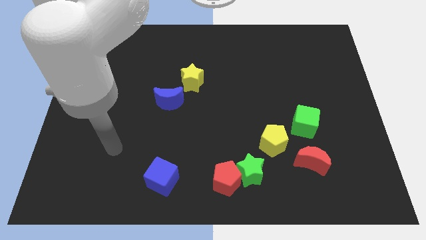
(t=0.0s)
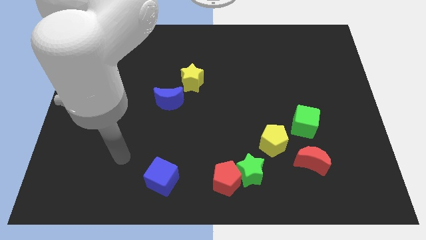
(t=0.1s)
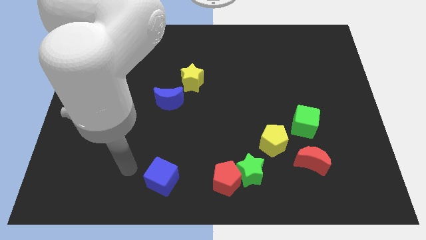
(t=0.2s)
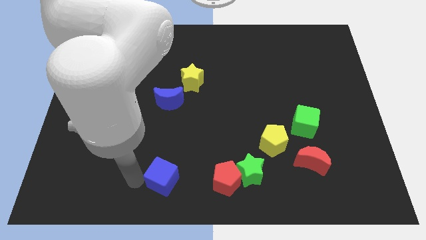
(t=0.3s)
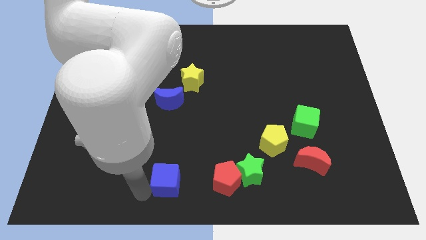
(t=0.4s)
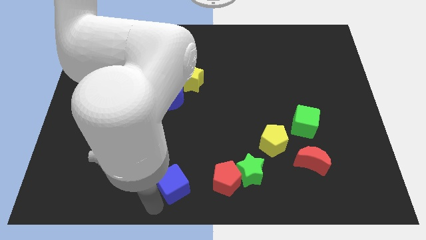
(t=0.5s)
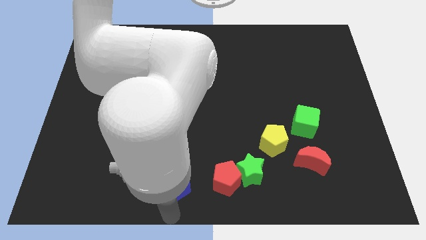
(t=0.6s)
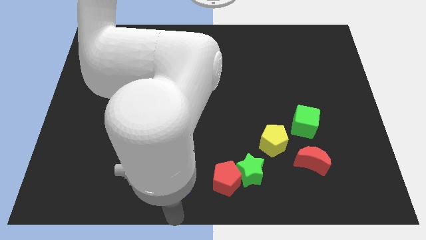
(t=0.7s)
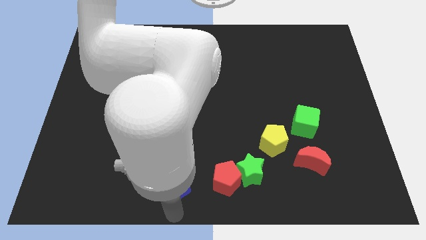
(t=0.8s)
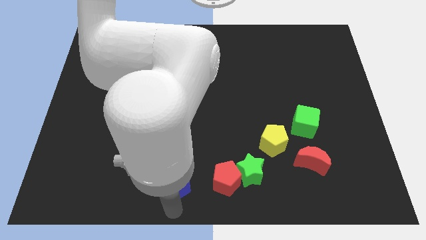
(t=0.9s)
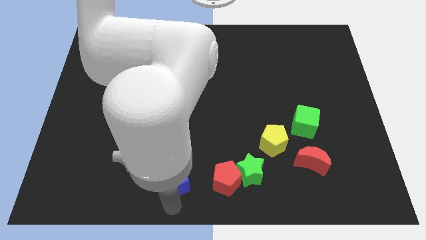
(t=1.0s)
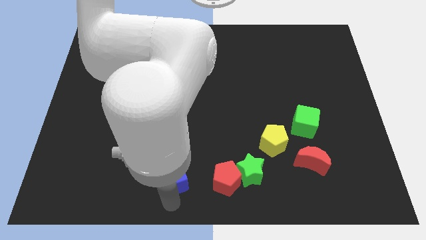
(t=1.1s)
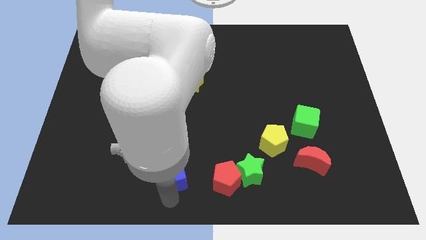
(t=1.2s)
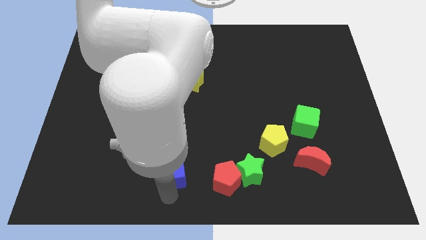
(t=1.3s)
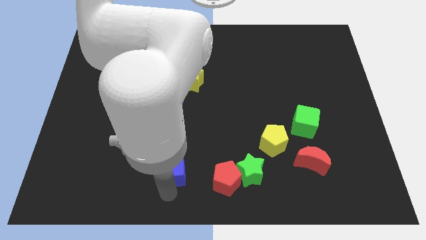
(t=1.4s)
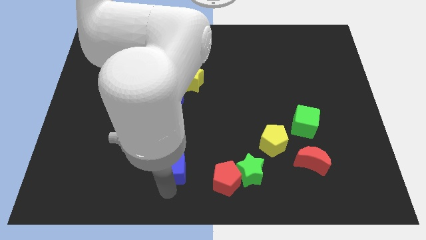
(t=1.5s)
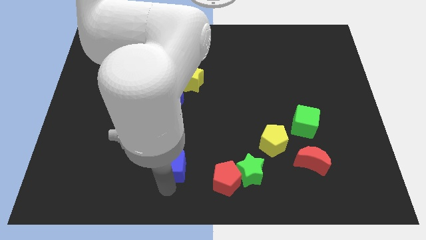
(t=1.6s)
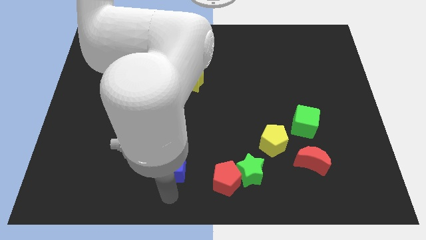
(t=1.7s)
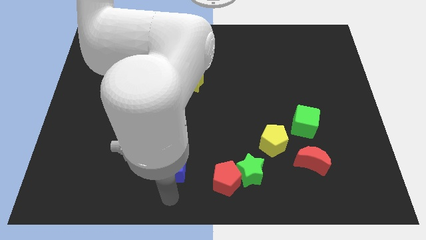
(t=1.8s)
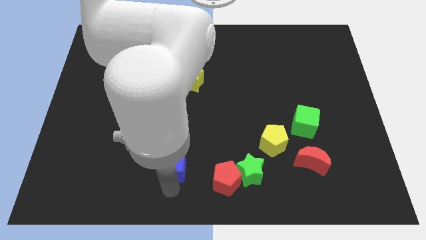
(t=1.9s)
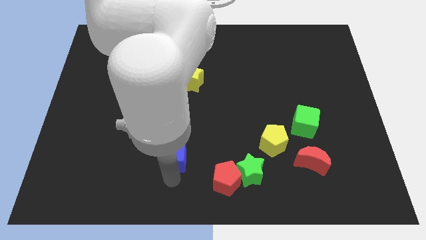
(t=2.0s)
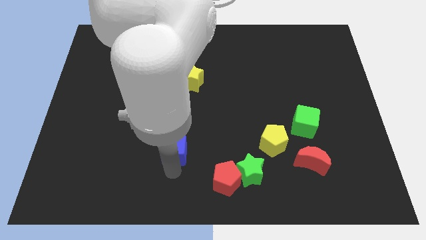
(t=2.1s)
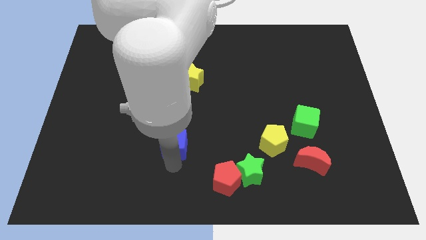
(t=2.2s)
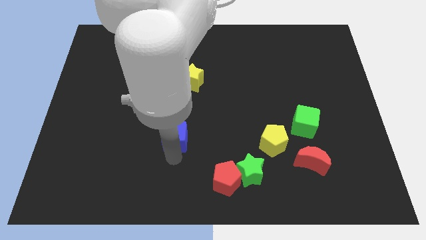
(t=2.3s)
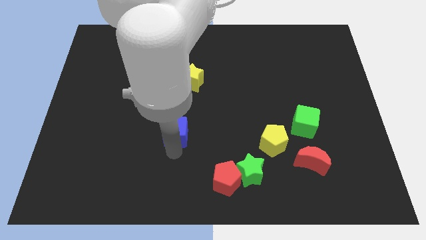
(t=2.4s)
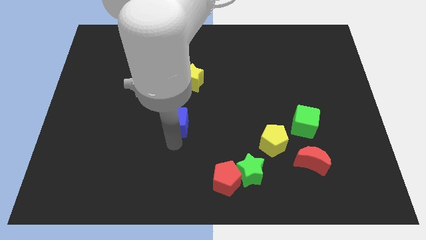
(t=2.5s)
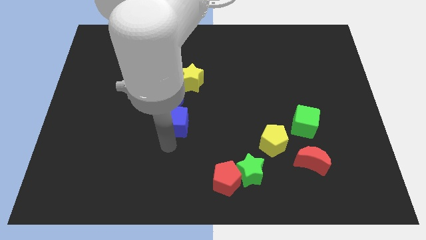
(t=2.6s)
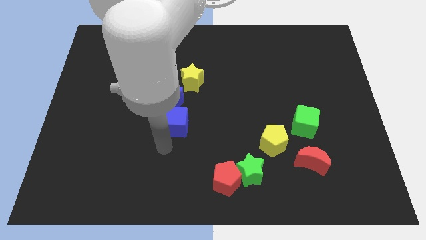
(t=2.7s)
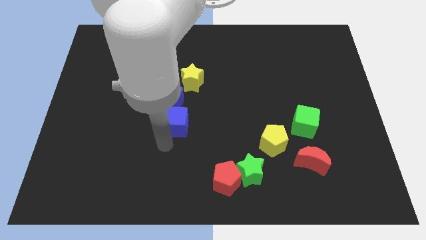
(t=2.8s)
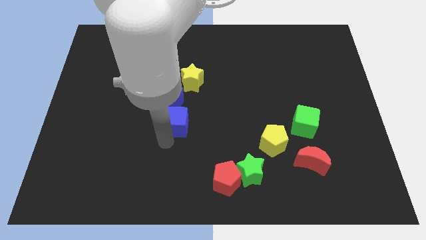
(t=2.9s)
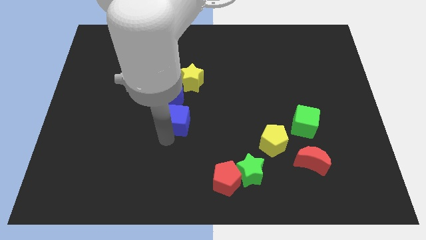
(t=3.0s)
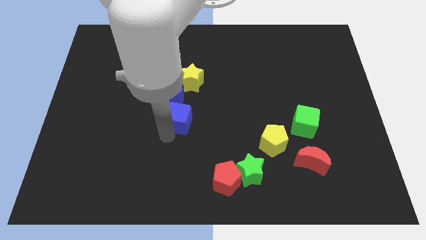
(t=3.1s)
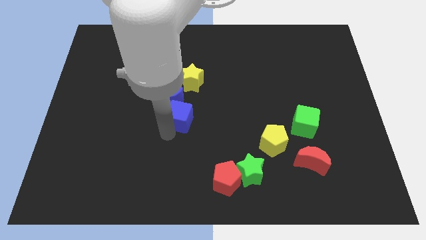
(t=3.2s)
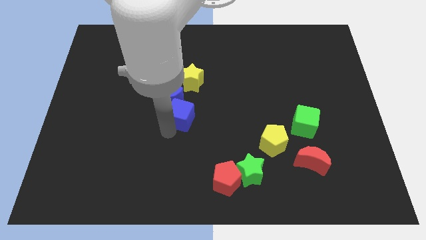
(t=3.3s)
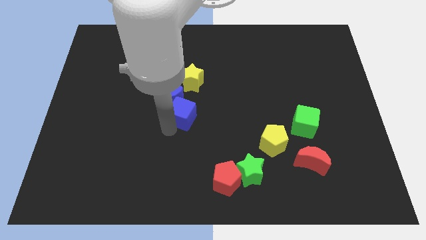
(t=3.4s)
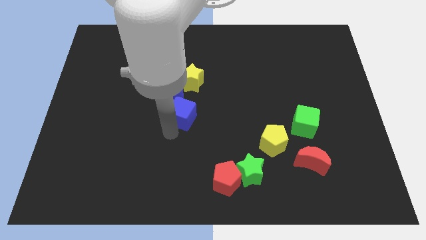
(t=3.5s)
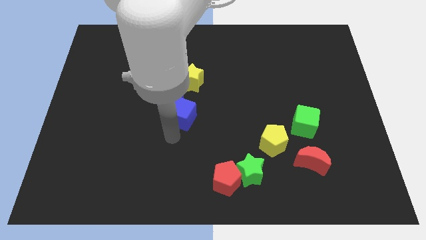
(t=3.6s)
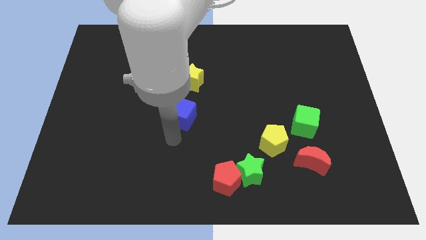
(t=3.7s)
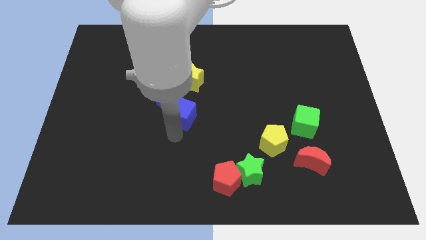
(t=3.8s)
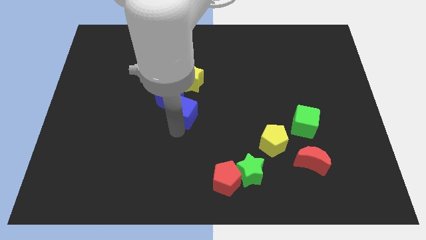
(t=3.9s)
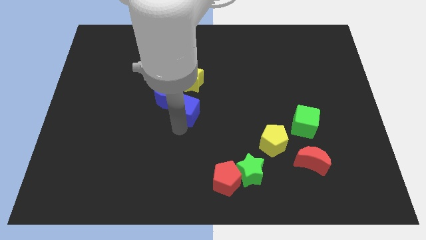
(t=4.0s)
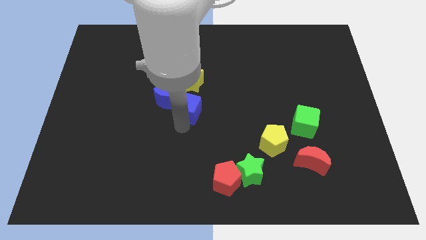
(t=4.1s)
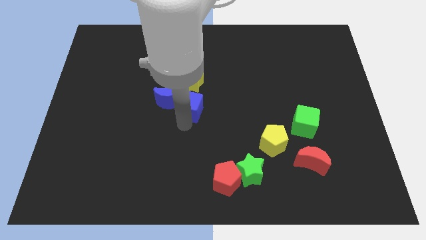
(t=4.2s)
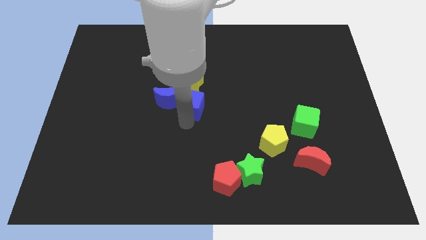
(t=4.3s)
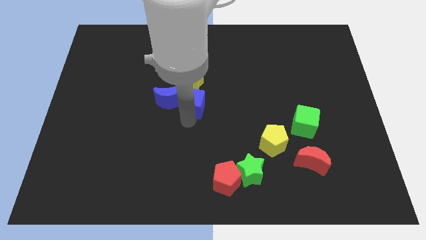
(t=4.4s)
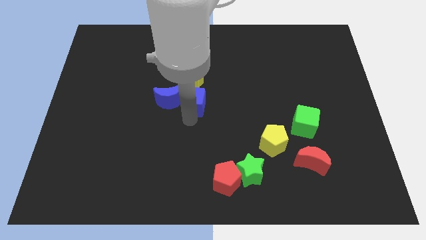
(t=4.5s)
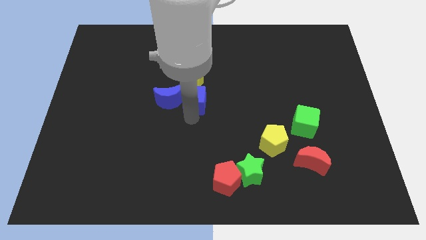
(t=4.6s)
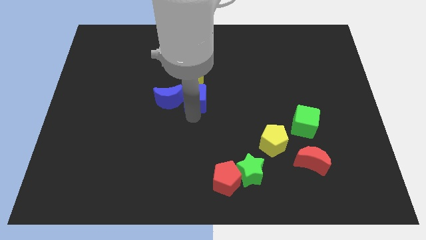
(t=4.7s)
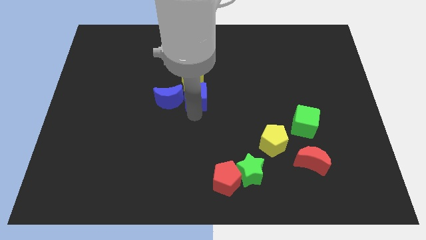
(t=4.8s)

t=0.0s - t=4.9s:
slide the blue cube next to the yellow star

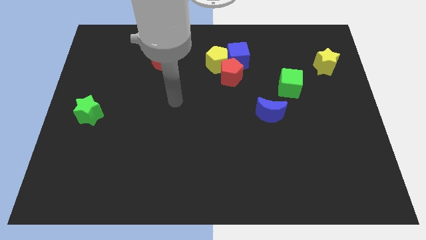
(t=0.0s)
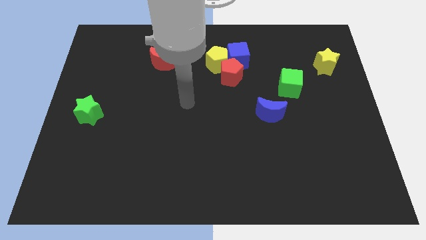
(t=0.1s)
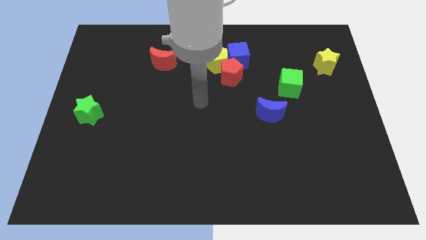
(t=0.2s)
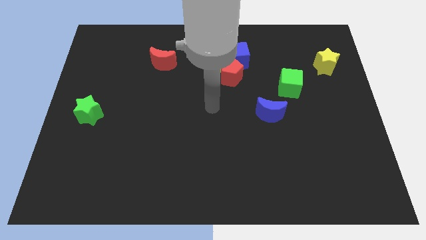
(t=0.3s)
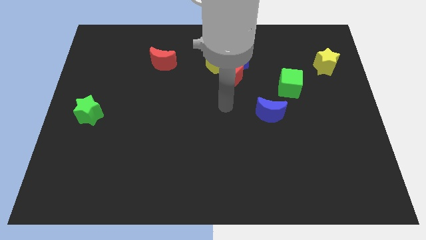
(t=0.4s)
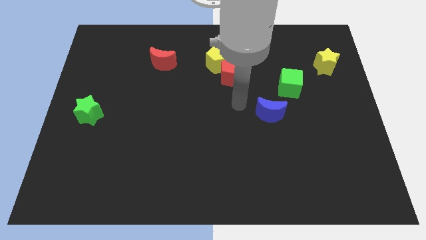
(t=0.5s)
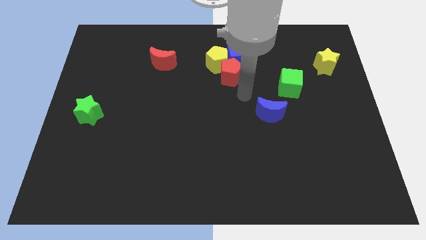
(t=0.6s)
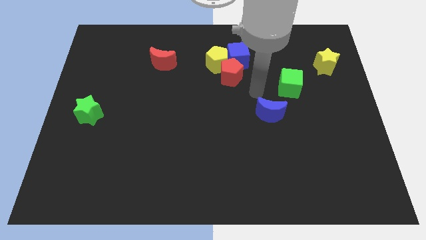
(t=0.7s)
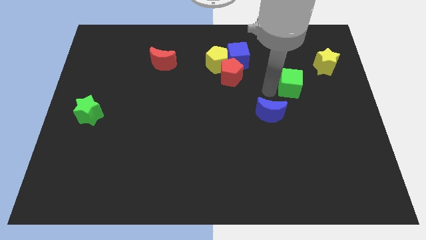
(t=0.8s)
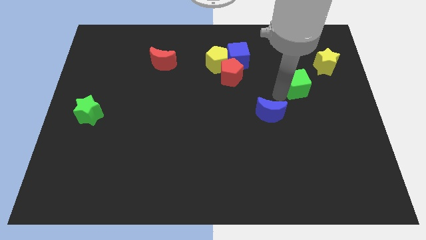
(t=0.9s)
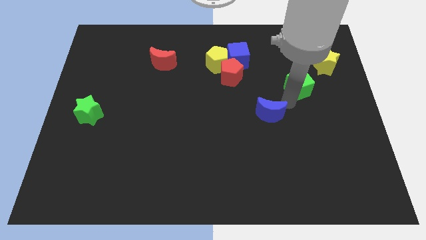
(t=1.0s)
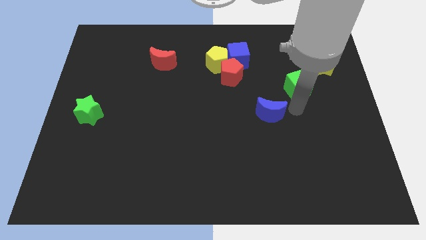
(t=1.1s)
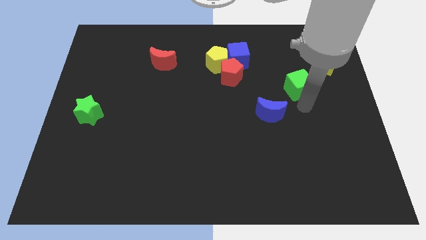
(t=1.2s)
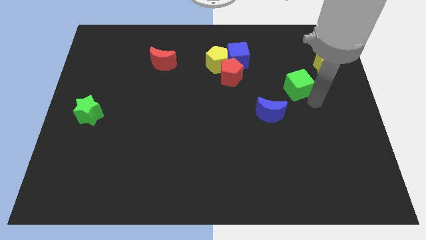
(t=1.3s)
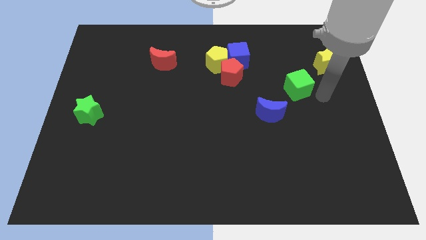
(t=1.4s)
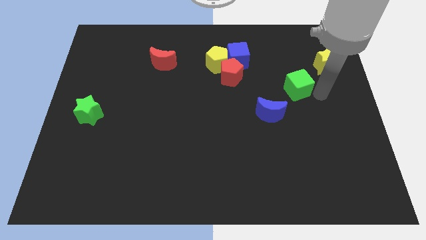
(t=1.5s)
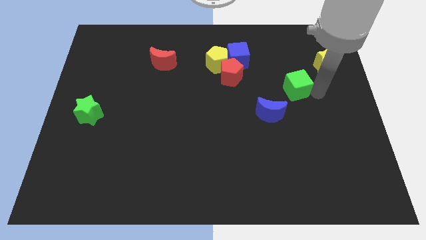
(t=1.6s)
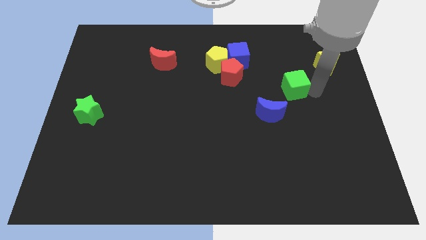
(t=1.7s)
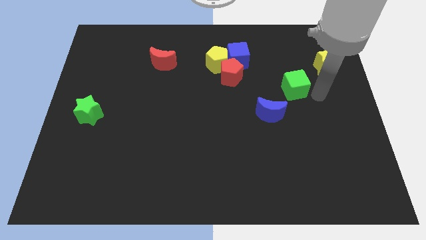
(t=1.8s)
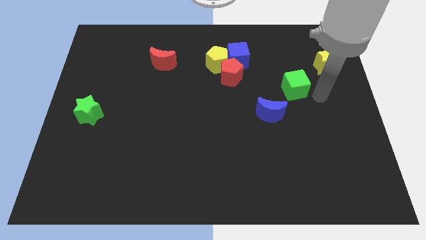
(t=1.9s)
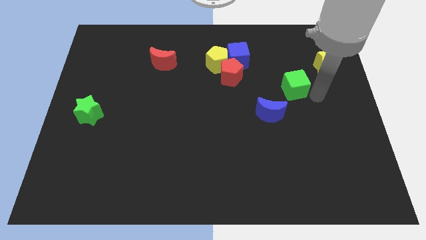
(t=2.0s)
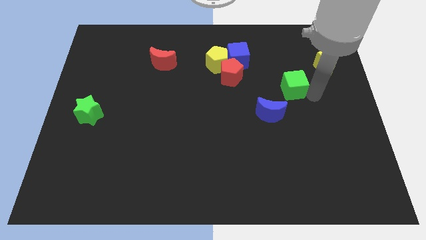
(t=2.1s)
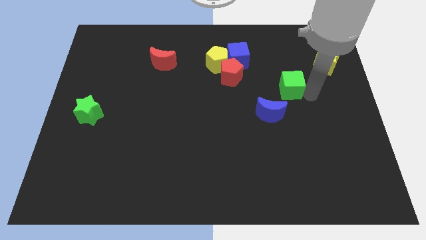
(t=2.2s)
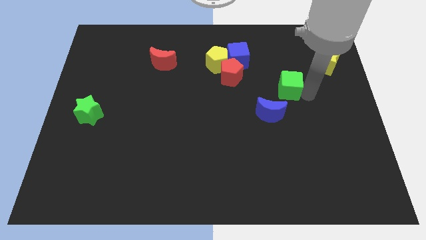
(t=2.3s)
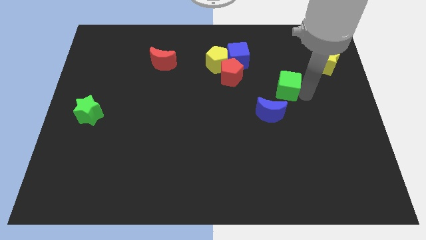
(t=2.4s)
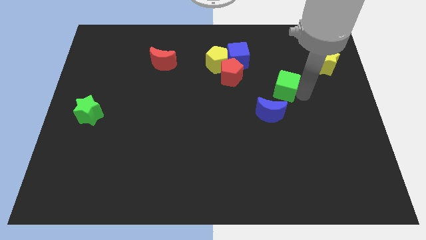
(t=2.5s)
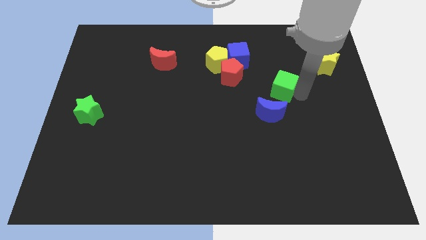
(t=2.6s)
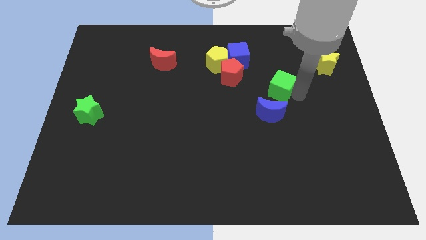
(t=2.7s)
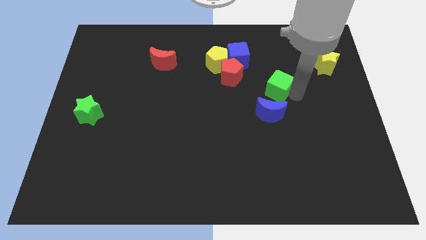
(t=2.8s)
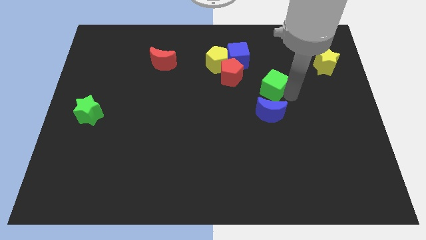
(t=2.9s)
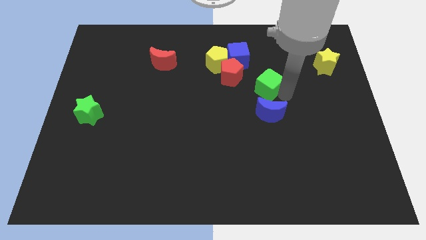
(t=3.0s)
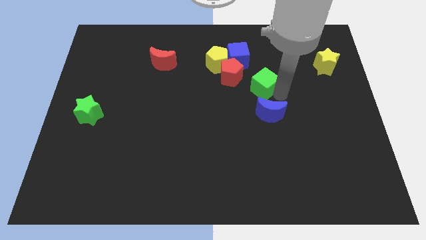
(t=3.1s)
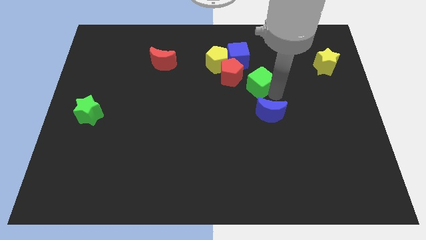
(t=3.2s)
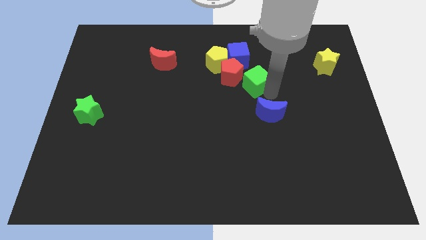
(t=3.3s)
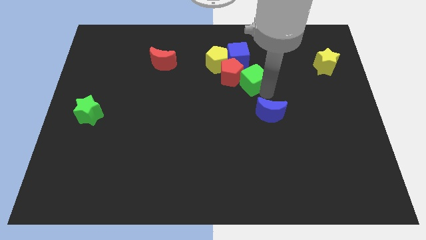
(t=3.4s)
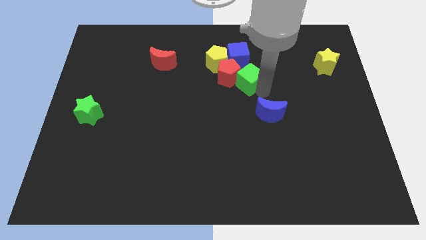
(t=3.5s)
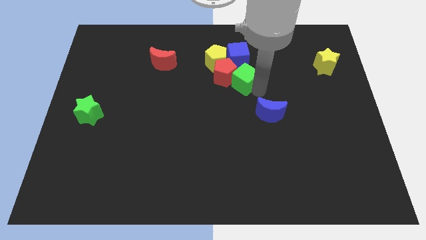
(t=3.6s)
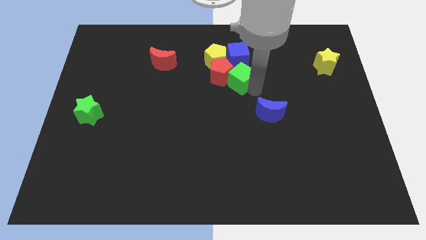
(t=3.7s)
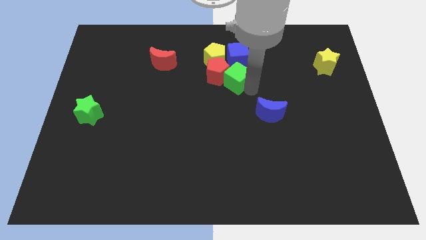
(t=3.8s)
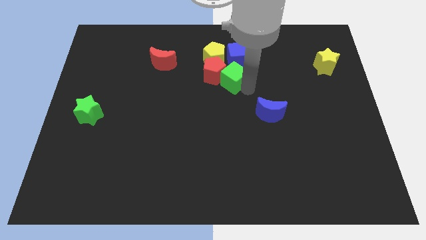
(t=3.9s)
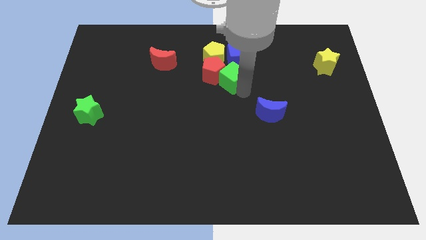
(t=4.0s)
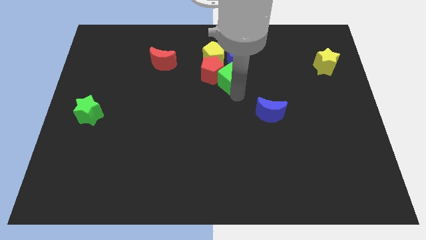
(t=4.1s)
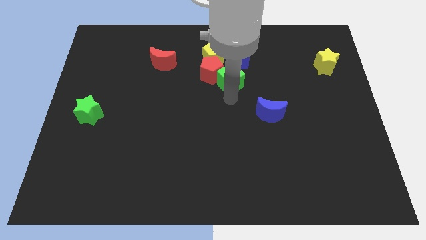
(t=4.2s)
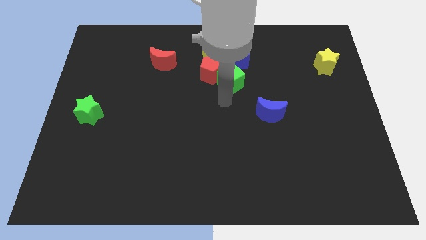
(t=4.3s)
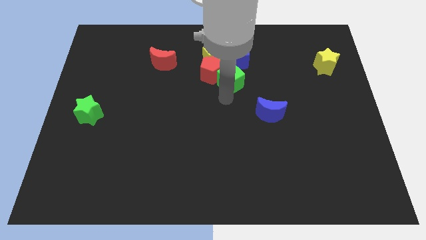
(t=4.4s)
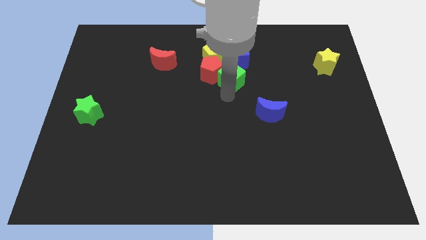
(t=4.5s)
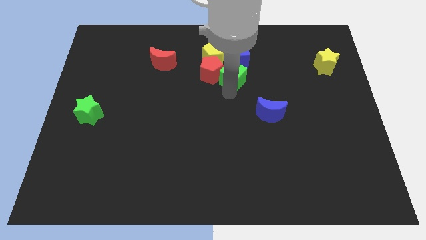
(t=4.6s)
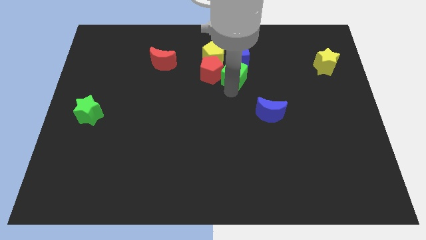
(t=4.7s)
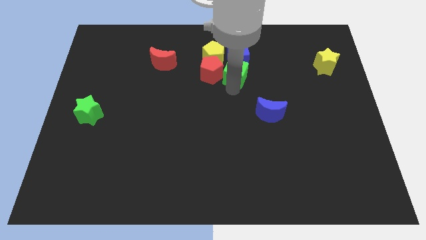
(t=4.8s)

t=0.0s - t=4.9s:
put the green cube next to the blue cube
